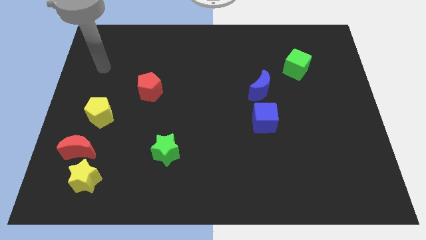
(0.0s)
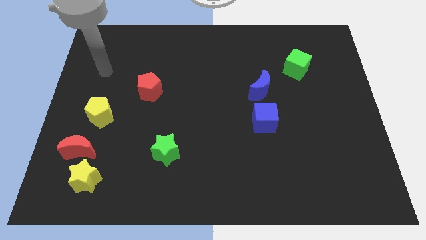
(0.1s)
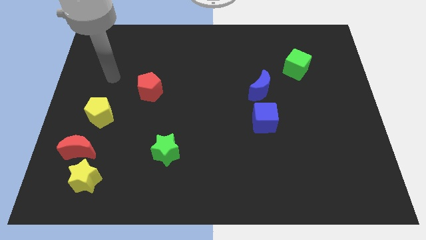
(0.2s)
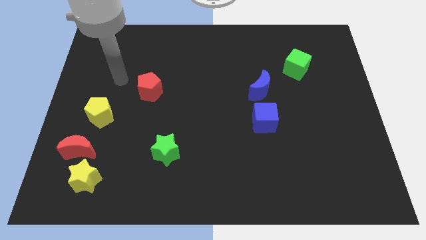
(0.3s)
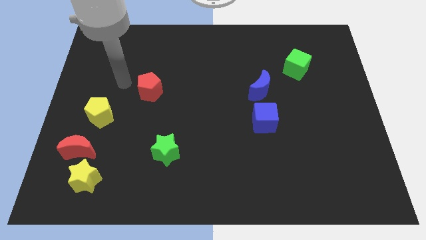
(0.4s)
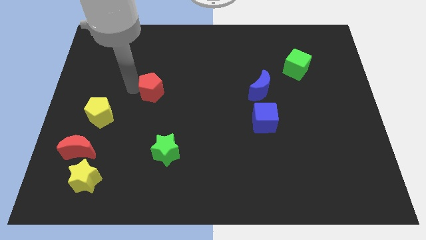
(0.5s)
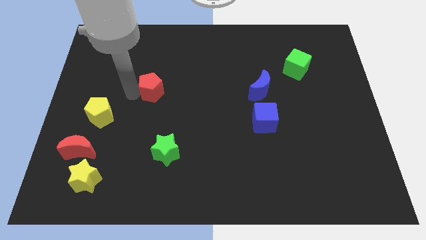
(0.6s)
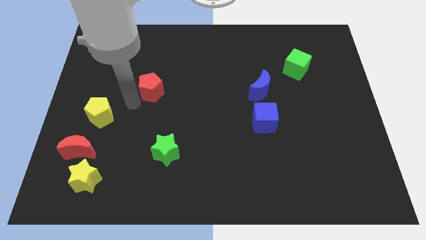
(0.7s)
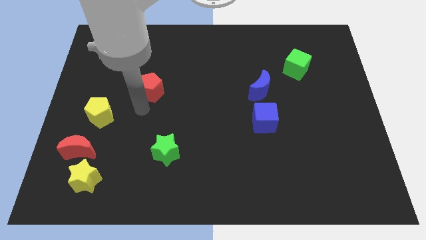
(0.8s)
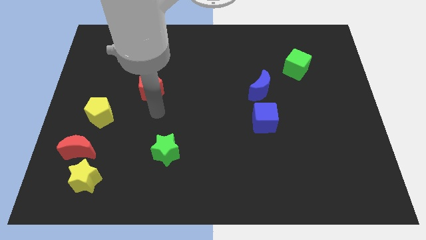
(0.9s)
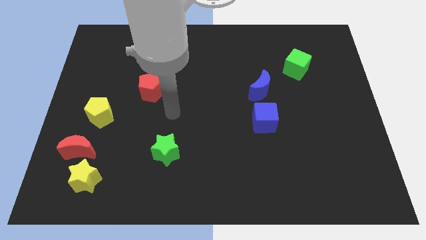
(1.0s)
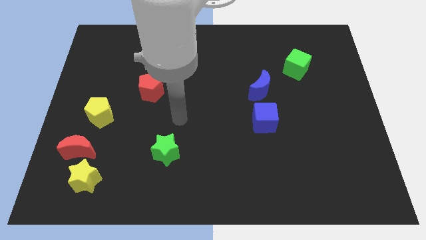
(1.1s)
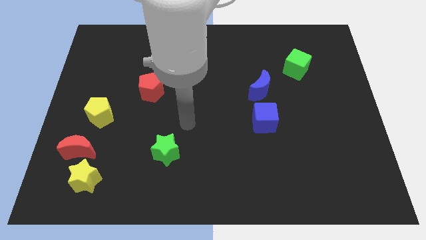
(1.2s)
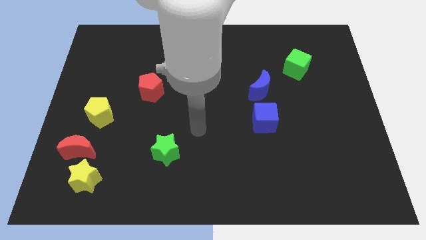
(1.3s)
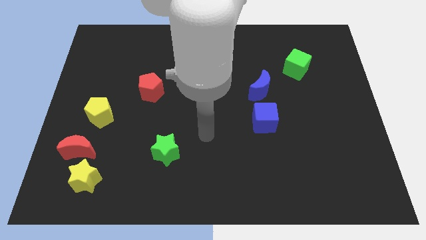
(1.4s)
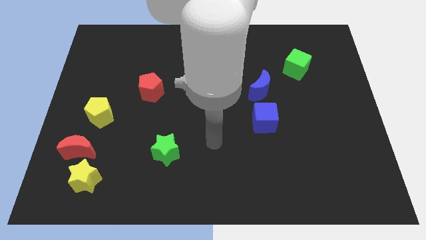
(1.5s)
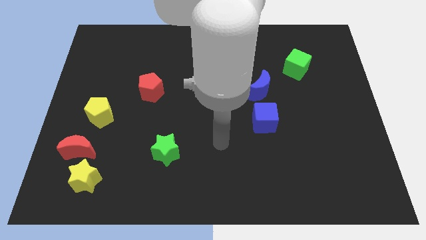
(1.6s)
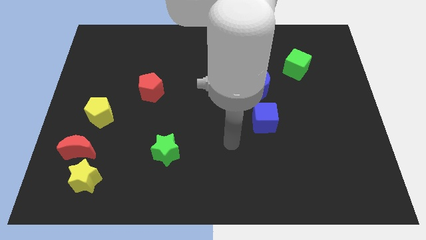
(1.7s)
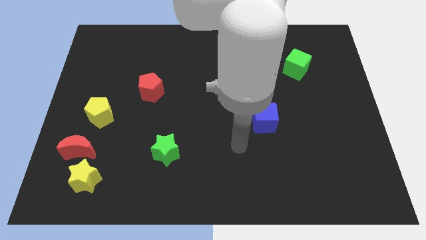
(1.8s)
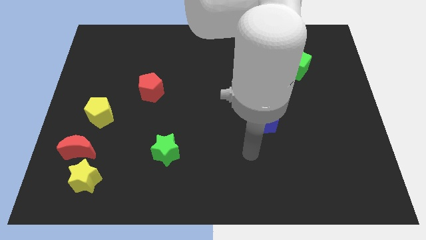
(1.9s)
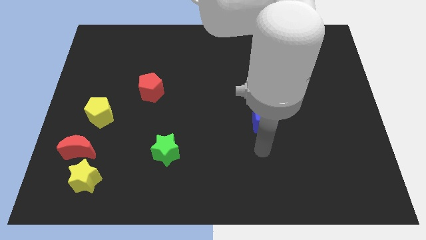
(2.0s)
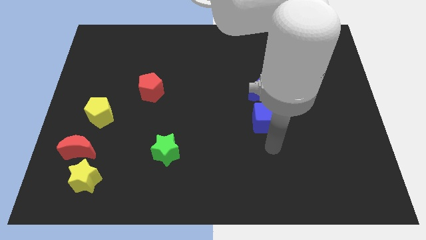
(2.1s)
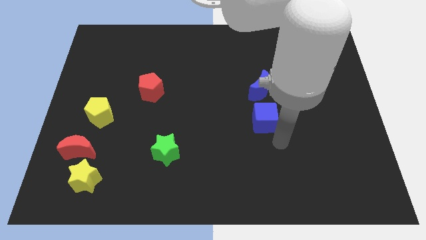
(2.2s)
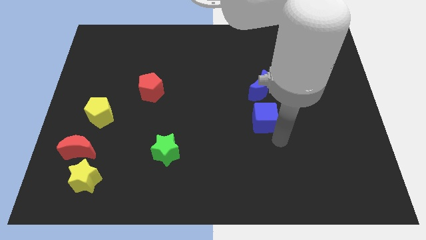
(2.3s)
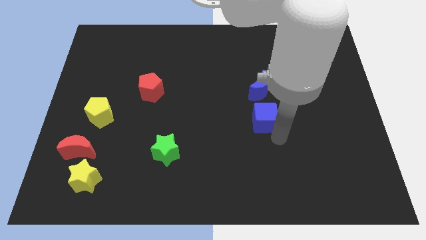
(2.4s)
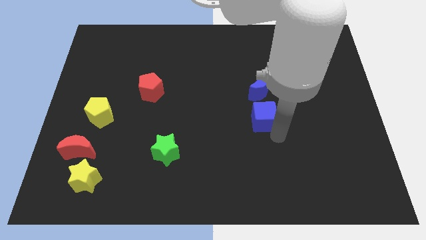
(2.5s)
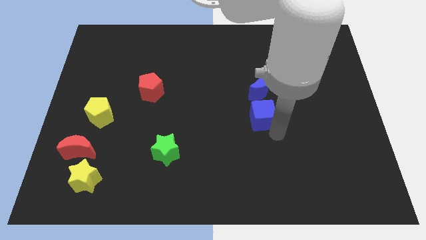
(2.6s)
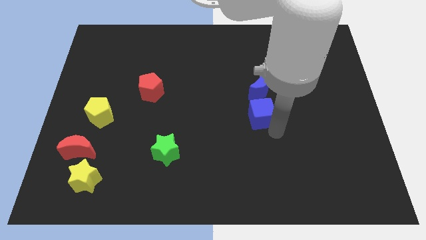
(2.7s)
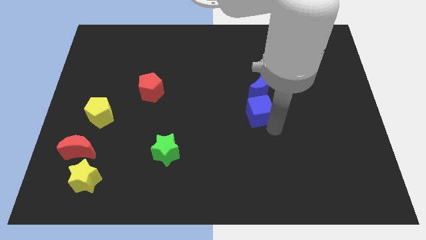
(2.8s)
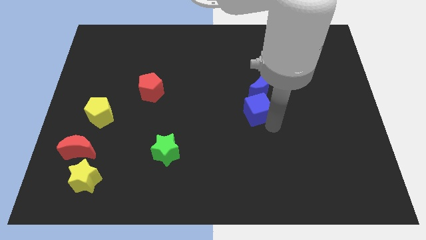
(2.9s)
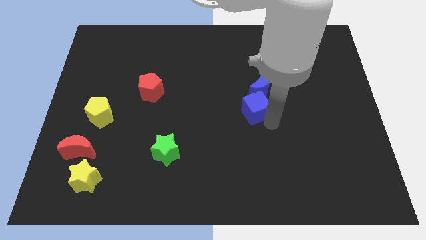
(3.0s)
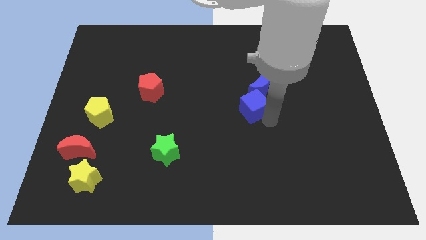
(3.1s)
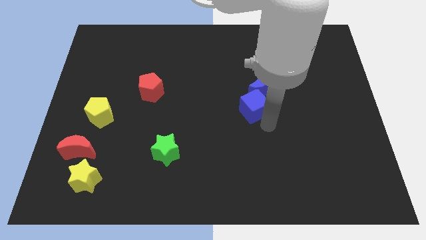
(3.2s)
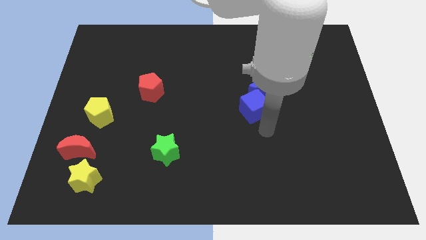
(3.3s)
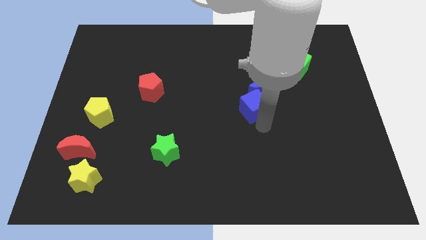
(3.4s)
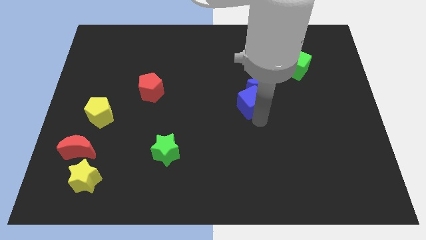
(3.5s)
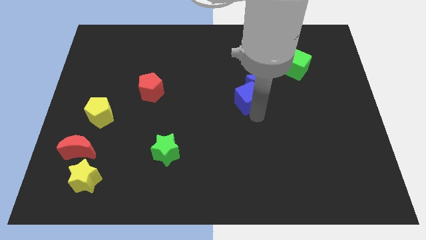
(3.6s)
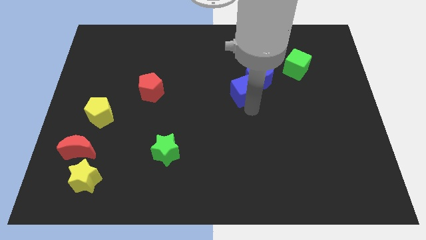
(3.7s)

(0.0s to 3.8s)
move the blue cube a bit upwards

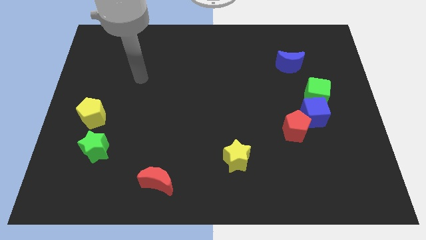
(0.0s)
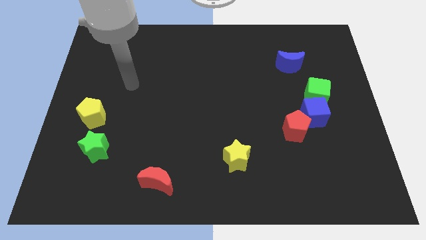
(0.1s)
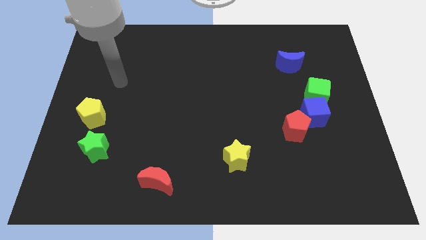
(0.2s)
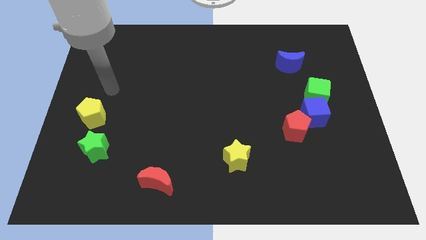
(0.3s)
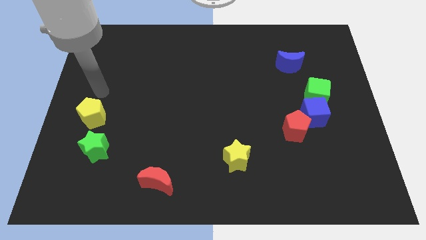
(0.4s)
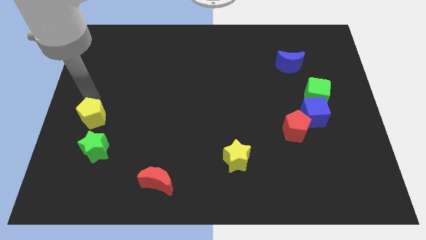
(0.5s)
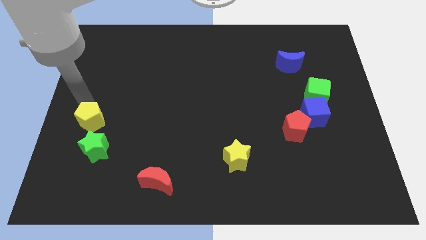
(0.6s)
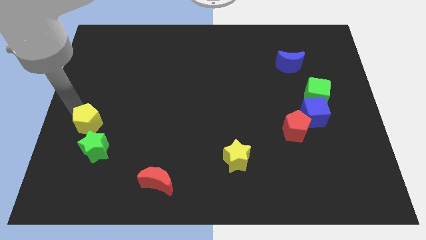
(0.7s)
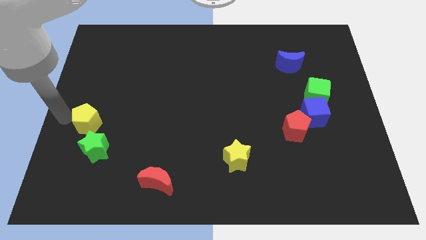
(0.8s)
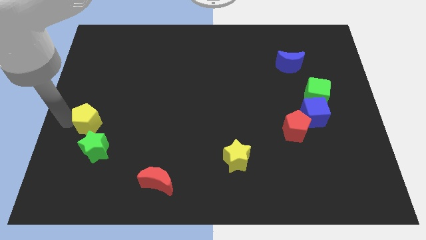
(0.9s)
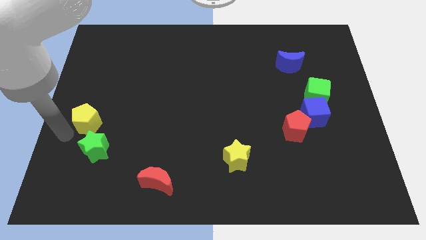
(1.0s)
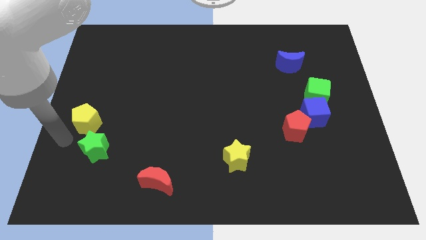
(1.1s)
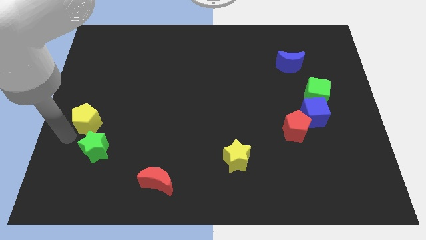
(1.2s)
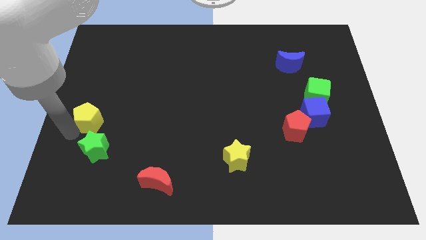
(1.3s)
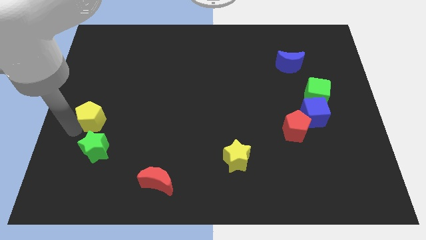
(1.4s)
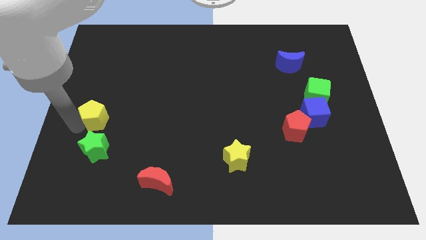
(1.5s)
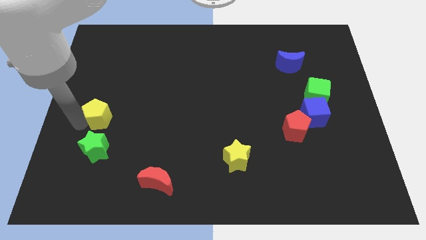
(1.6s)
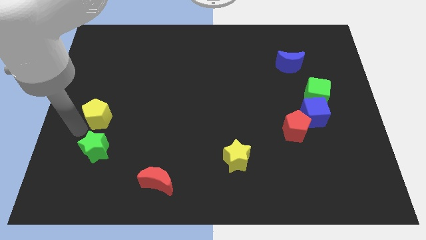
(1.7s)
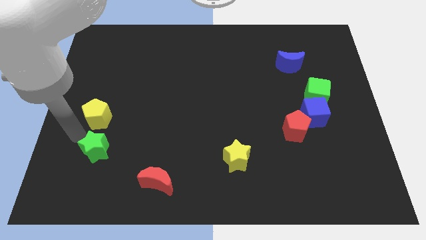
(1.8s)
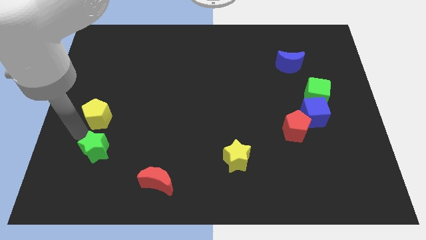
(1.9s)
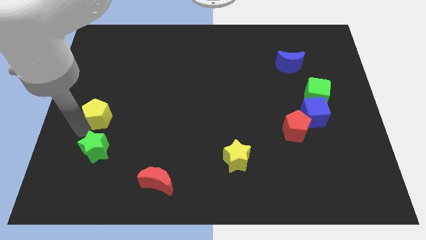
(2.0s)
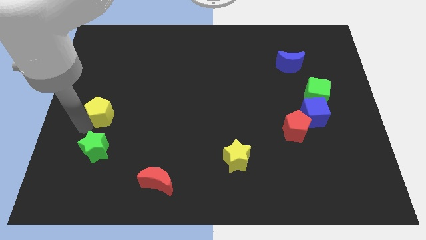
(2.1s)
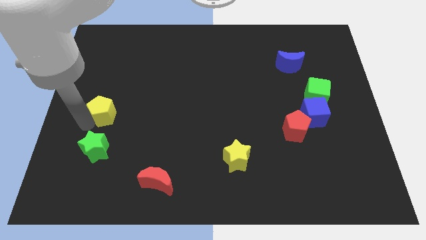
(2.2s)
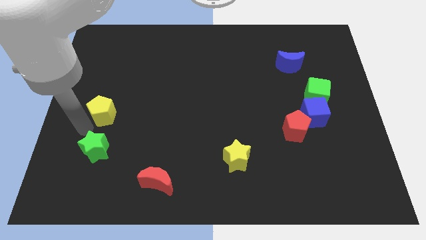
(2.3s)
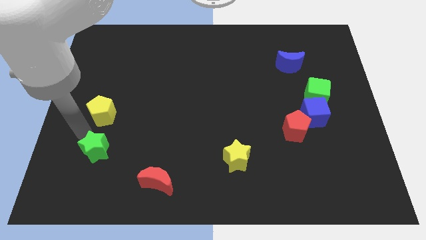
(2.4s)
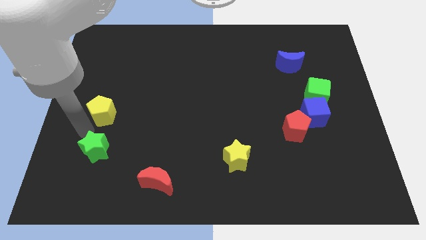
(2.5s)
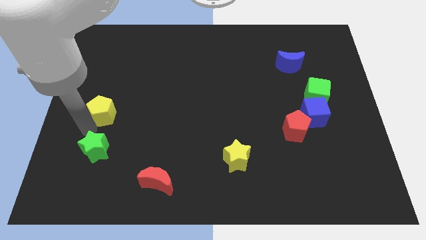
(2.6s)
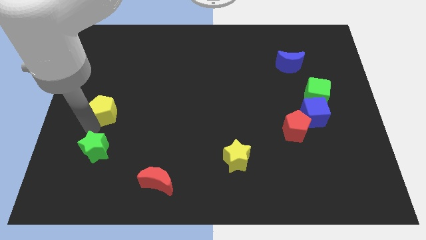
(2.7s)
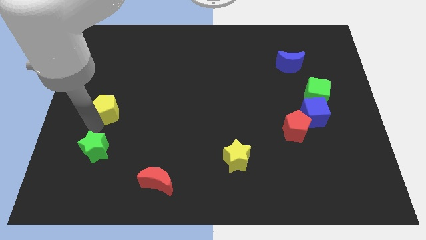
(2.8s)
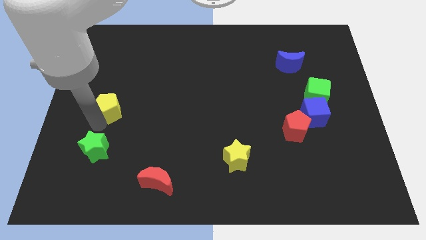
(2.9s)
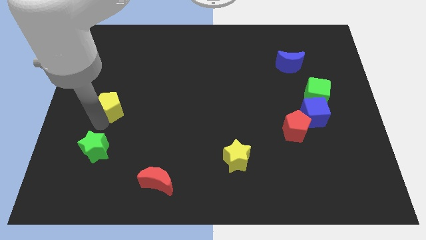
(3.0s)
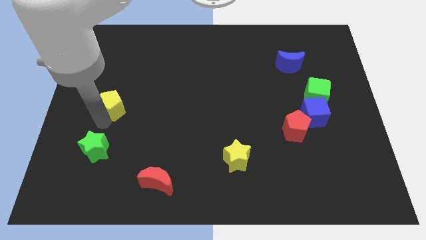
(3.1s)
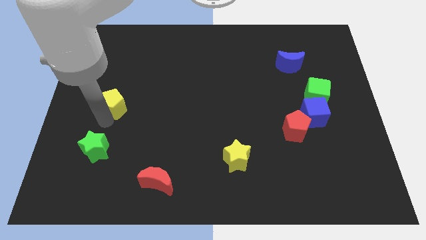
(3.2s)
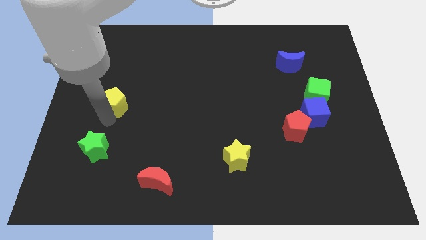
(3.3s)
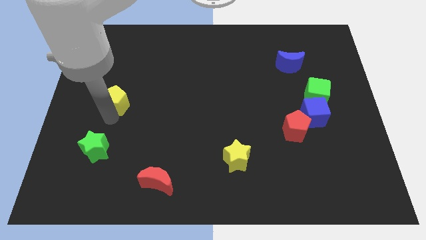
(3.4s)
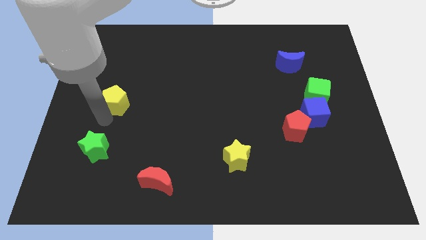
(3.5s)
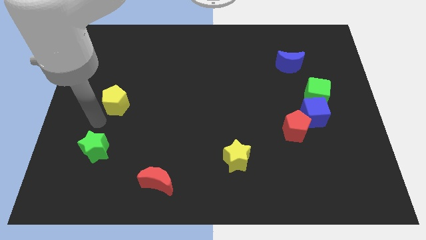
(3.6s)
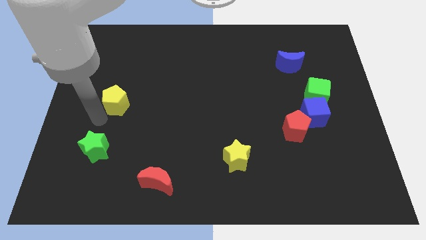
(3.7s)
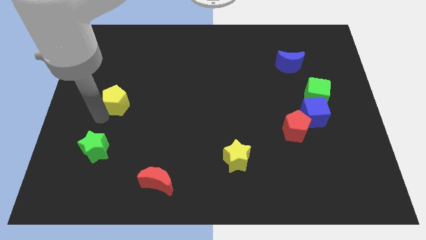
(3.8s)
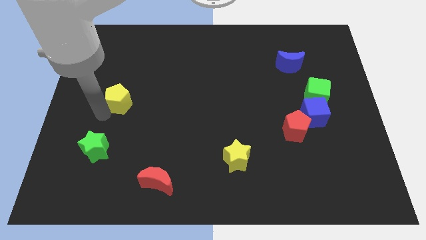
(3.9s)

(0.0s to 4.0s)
slide the yellow pentagon somewhat up and then right
